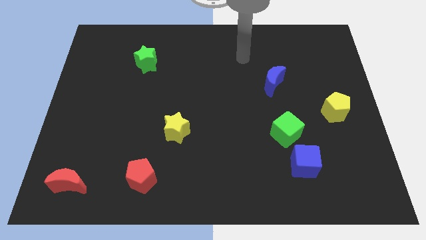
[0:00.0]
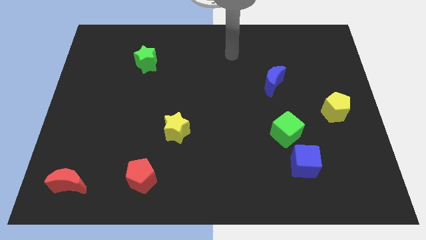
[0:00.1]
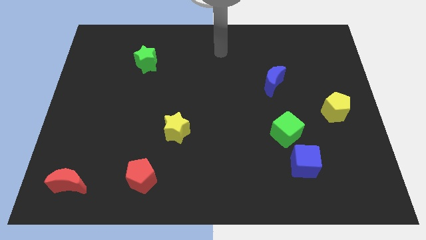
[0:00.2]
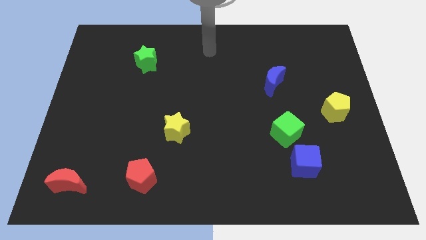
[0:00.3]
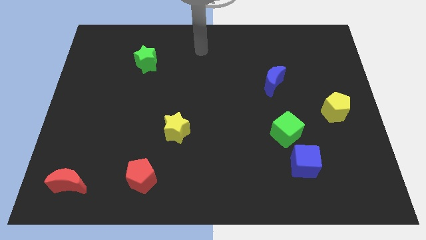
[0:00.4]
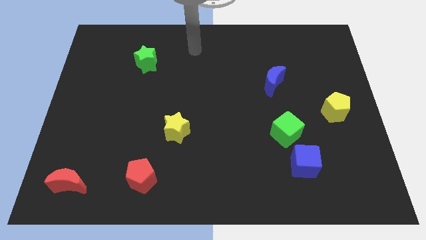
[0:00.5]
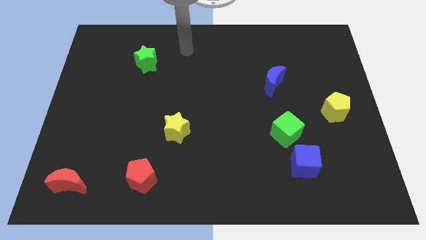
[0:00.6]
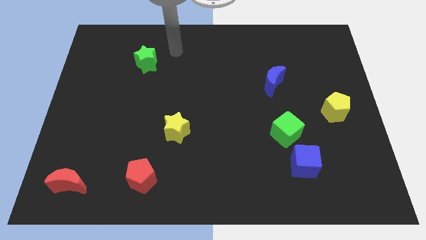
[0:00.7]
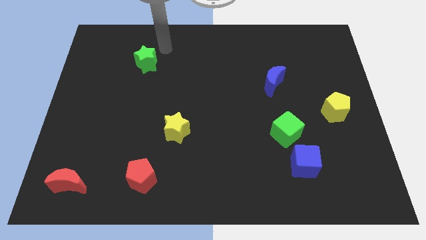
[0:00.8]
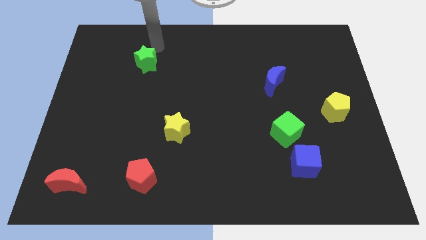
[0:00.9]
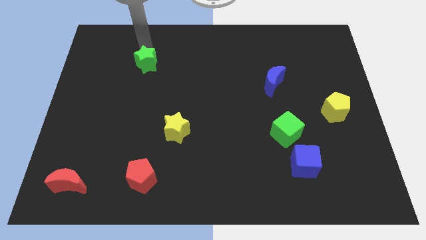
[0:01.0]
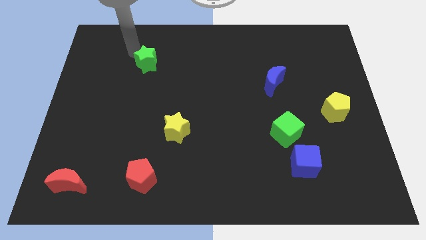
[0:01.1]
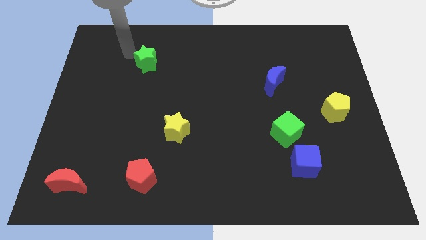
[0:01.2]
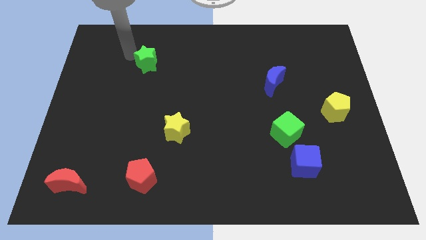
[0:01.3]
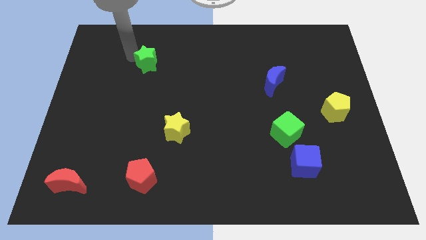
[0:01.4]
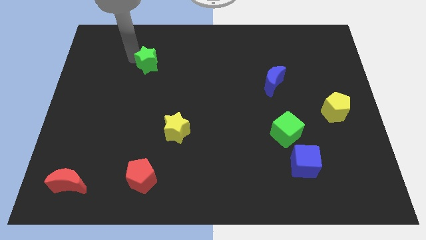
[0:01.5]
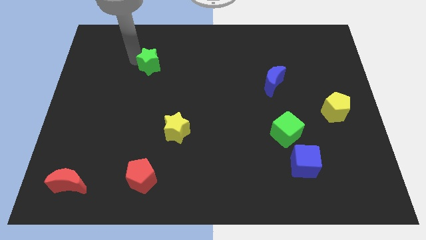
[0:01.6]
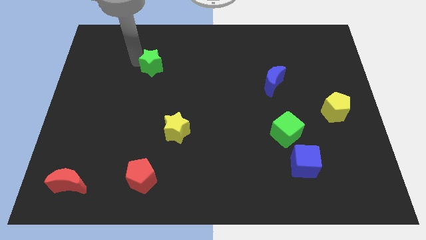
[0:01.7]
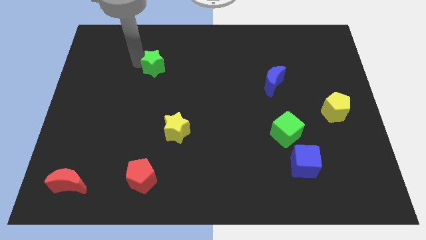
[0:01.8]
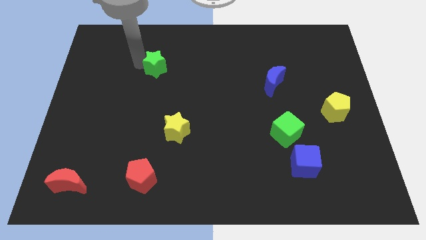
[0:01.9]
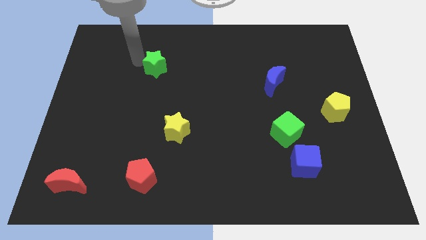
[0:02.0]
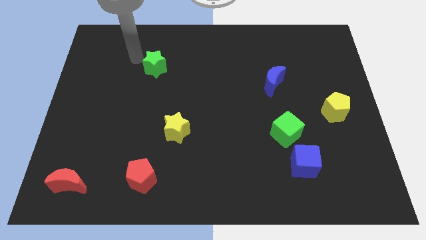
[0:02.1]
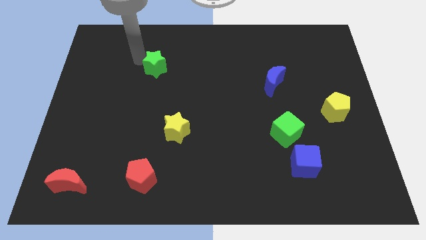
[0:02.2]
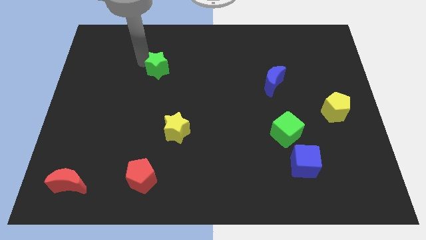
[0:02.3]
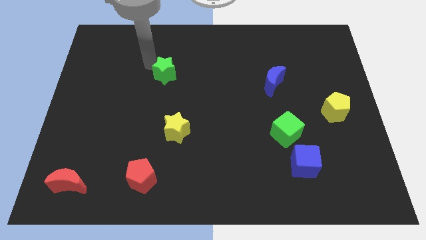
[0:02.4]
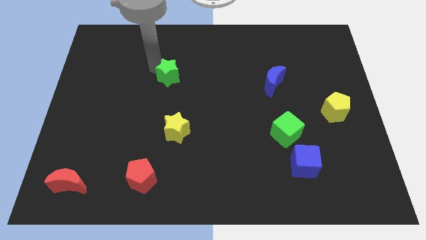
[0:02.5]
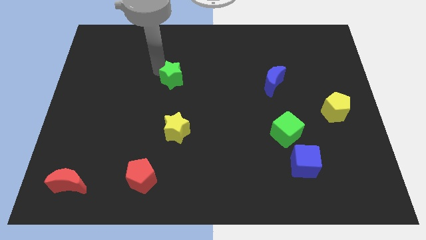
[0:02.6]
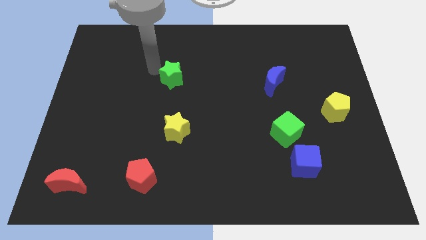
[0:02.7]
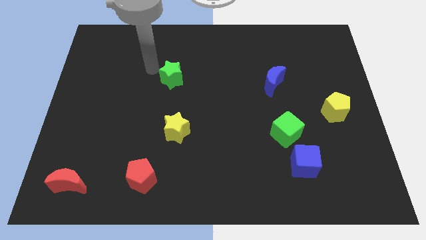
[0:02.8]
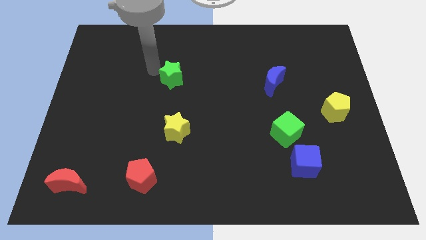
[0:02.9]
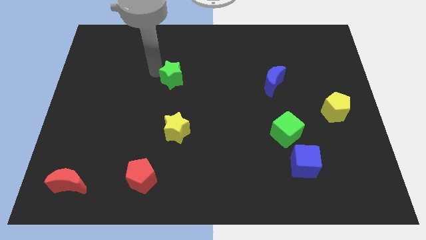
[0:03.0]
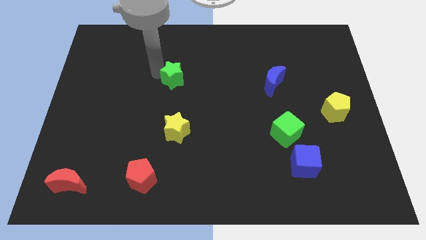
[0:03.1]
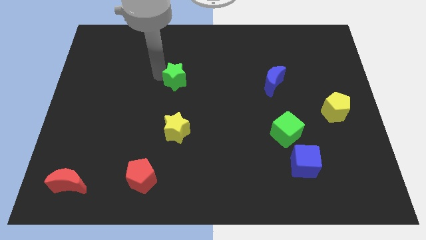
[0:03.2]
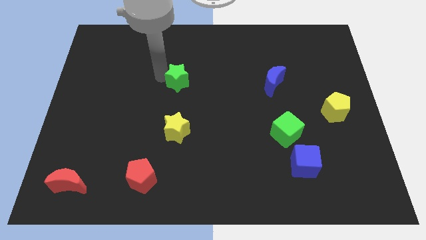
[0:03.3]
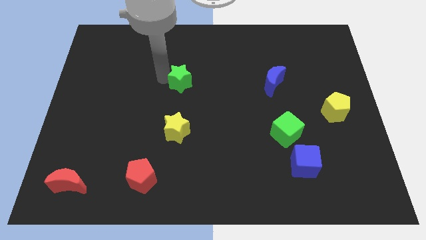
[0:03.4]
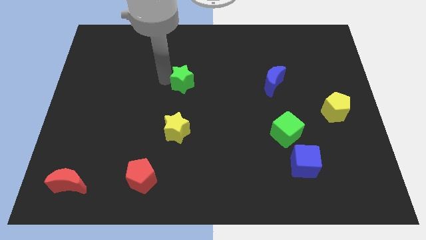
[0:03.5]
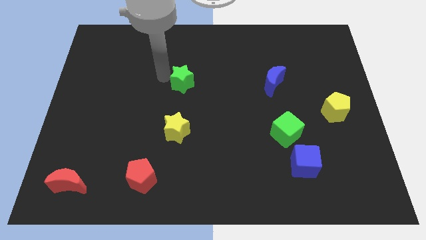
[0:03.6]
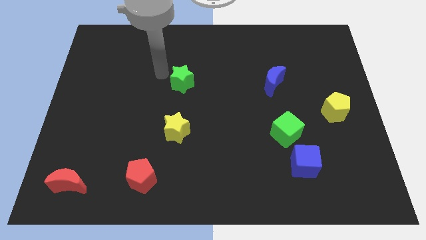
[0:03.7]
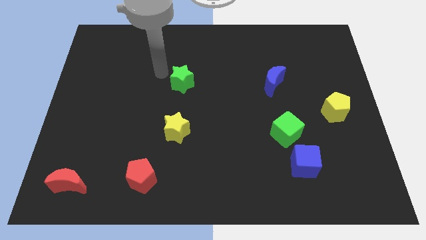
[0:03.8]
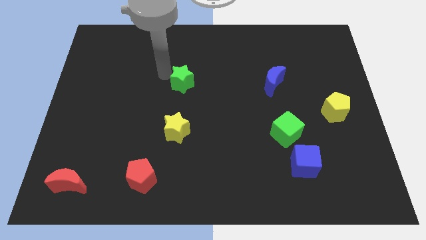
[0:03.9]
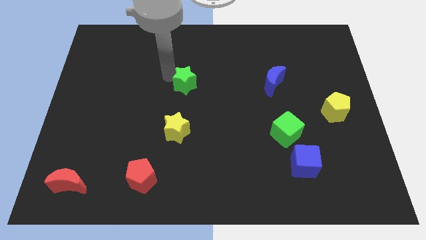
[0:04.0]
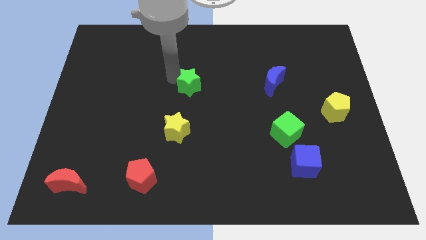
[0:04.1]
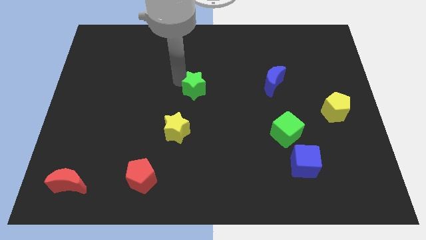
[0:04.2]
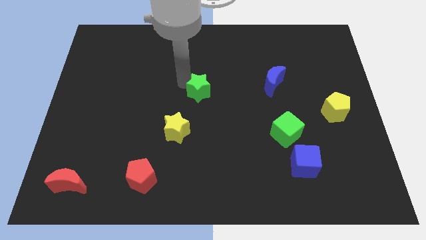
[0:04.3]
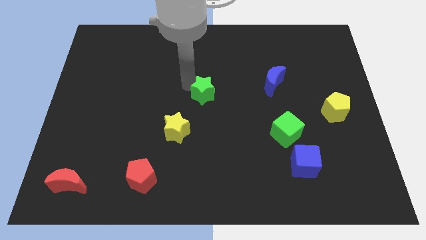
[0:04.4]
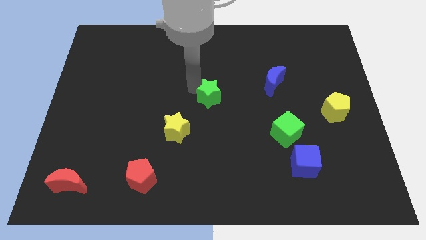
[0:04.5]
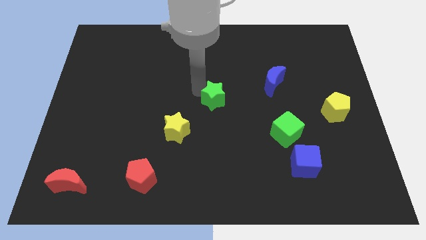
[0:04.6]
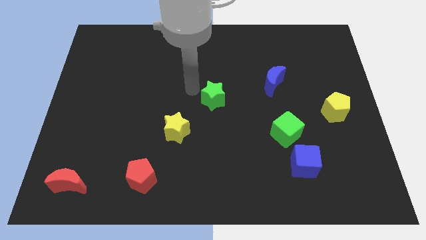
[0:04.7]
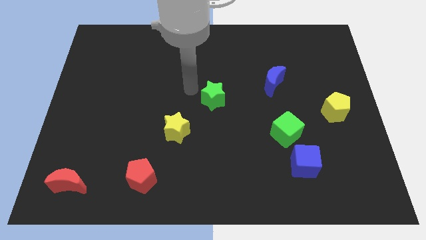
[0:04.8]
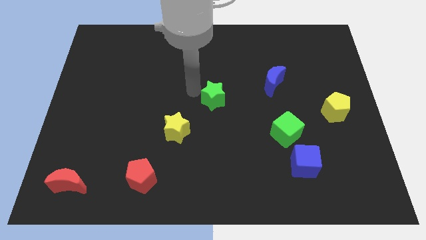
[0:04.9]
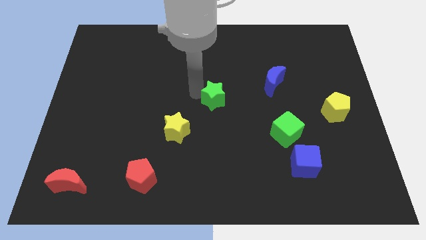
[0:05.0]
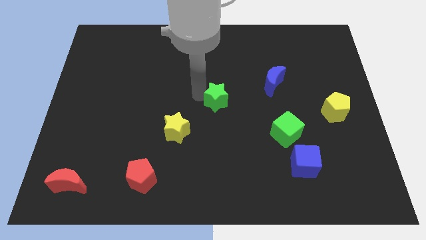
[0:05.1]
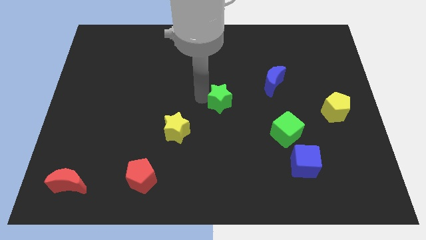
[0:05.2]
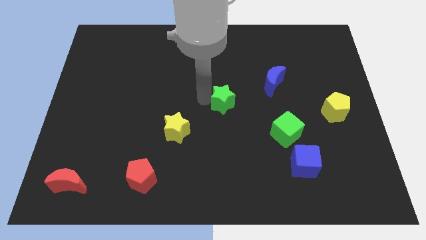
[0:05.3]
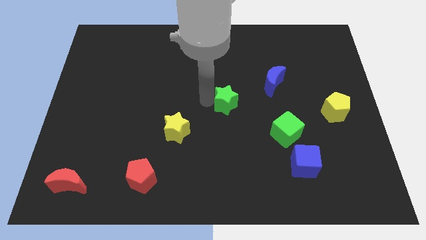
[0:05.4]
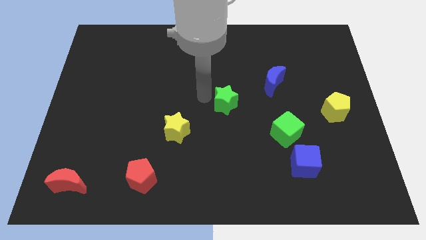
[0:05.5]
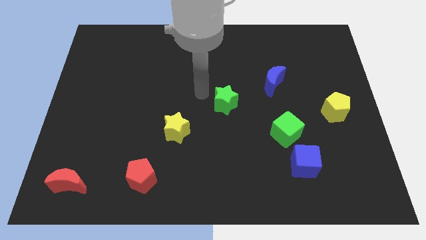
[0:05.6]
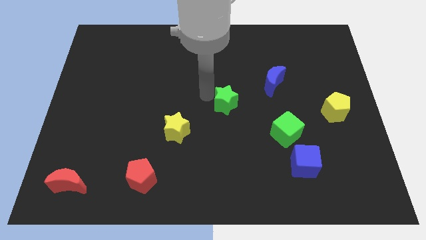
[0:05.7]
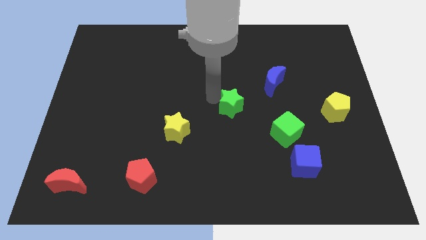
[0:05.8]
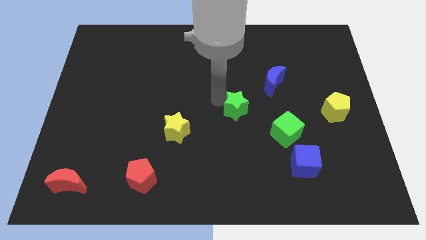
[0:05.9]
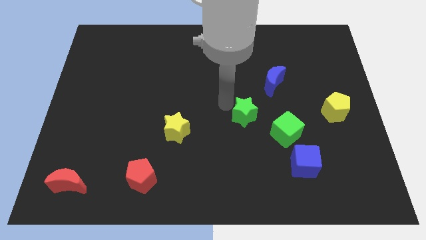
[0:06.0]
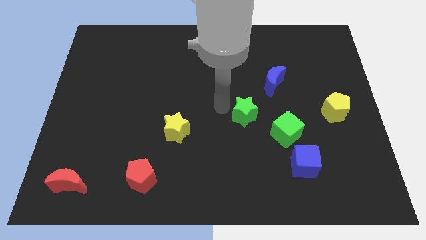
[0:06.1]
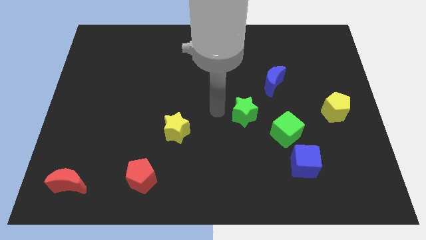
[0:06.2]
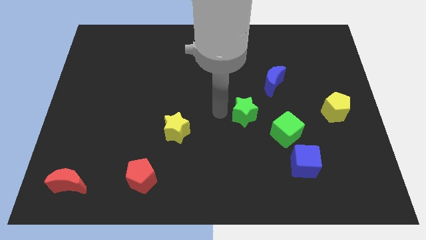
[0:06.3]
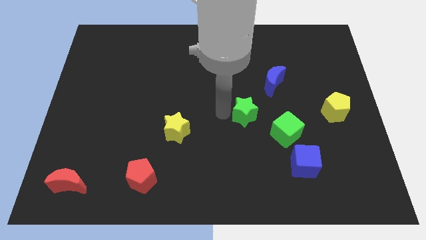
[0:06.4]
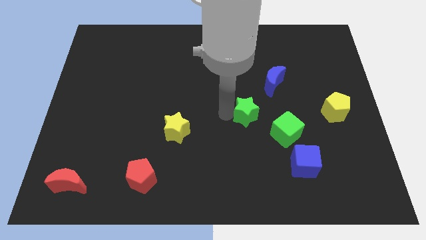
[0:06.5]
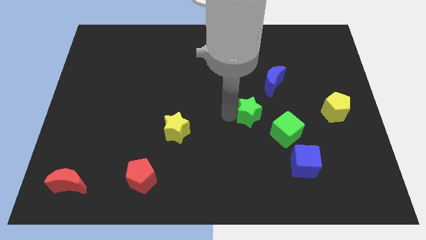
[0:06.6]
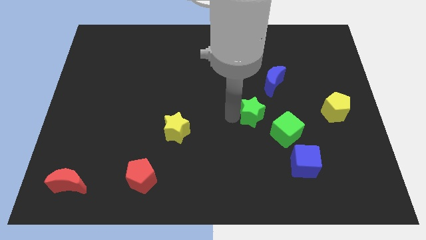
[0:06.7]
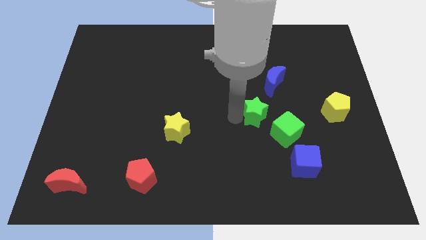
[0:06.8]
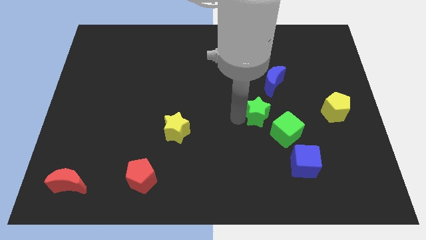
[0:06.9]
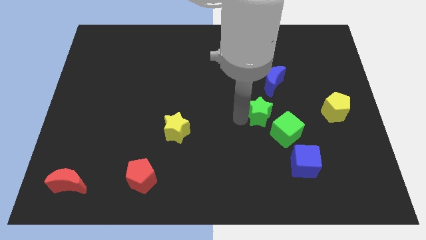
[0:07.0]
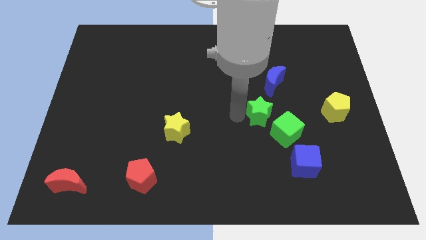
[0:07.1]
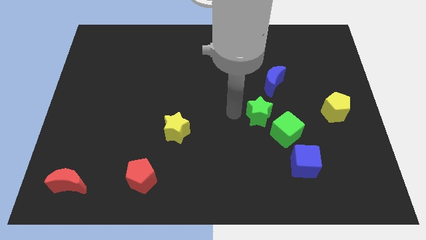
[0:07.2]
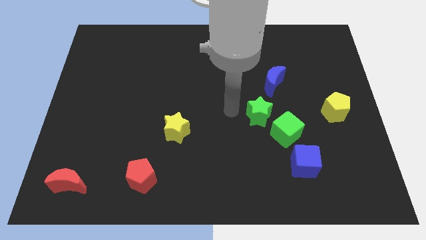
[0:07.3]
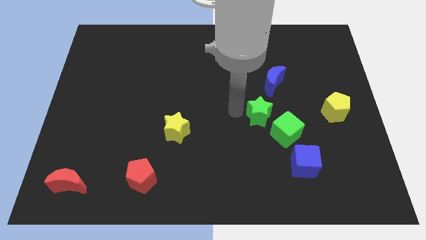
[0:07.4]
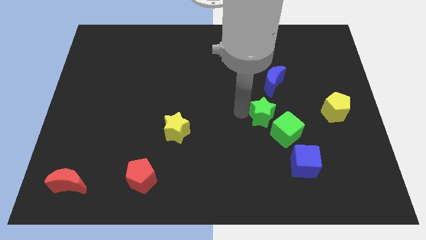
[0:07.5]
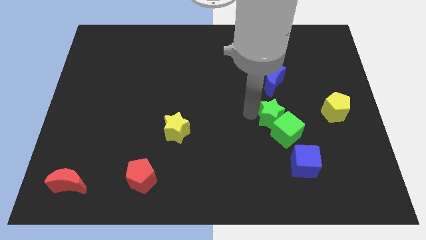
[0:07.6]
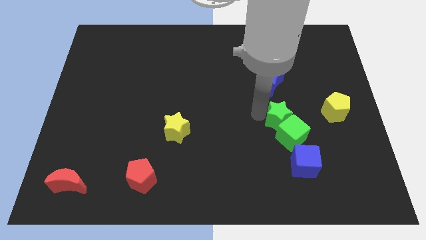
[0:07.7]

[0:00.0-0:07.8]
slide the green star to the top side of the blue cube
